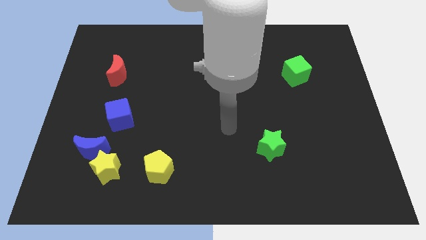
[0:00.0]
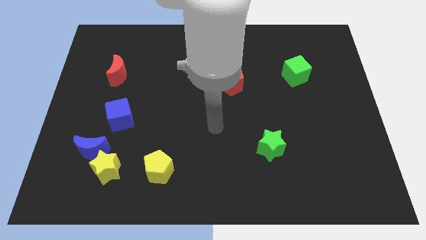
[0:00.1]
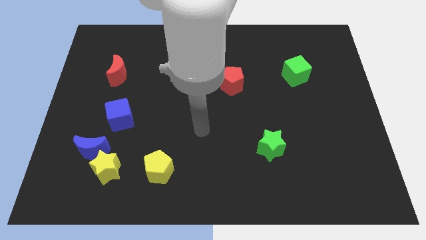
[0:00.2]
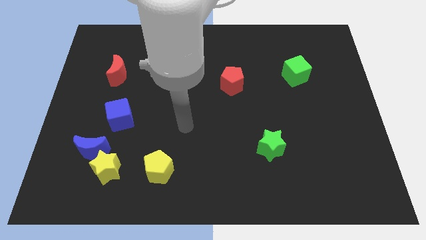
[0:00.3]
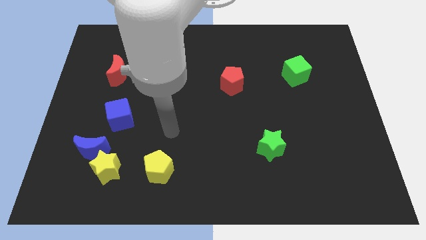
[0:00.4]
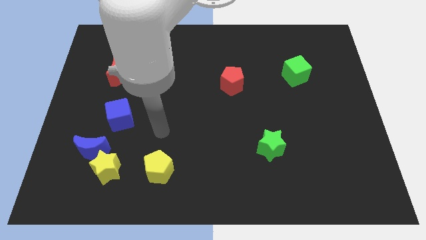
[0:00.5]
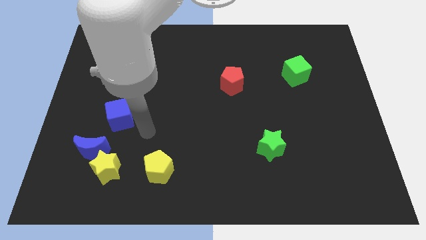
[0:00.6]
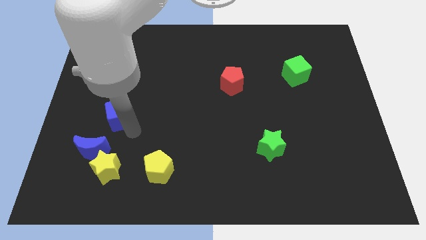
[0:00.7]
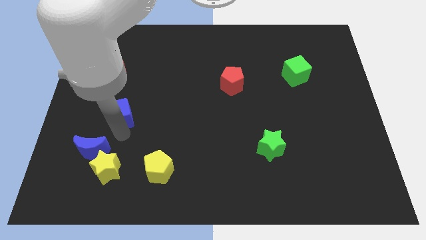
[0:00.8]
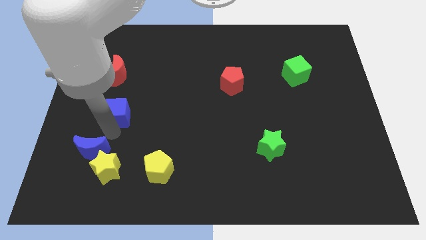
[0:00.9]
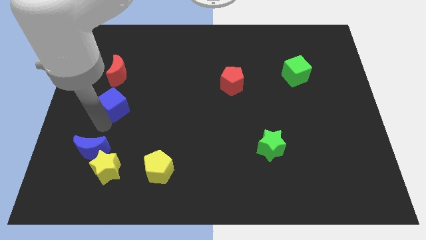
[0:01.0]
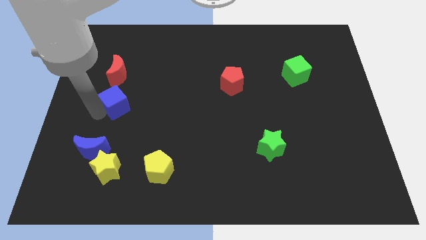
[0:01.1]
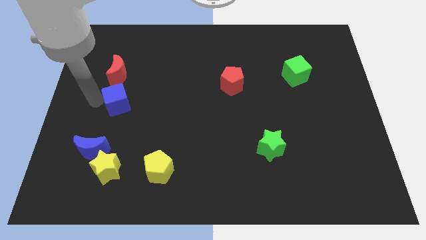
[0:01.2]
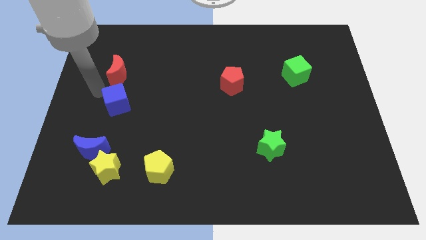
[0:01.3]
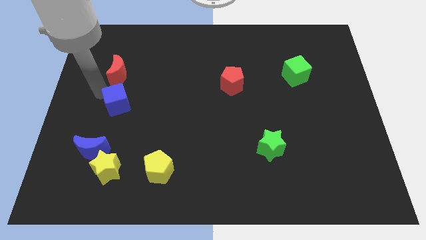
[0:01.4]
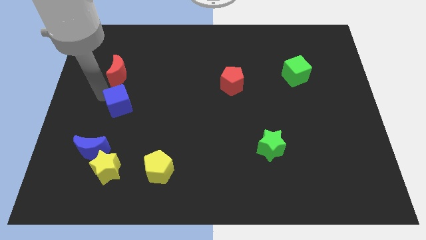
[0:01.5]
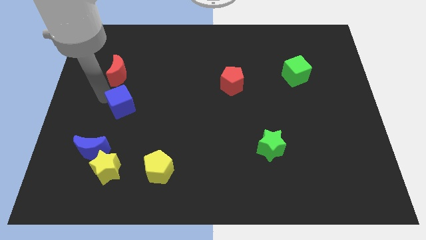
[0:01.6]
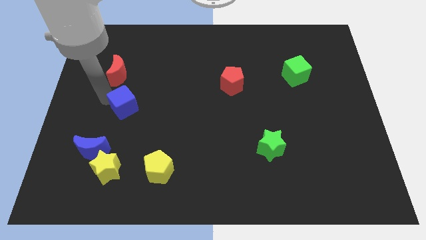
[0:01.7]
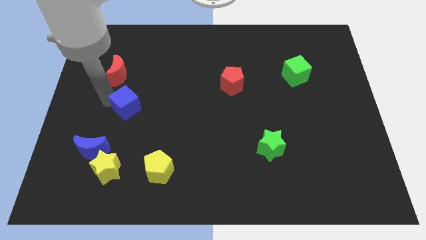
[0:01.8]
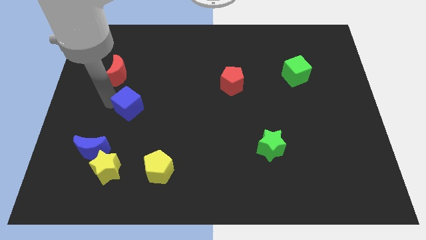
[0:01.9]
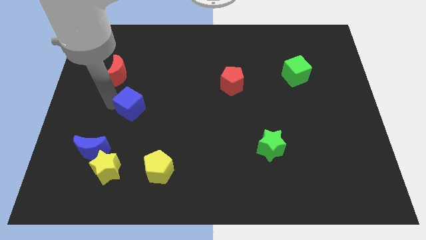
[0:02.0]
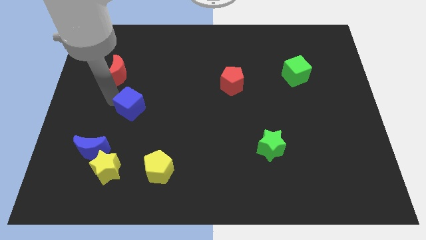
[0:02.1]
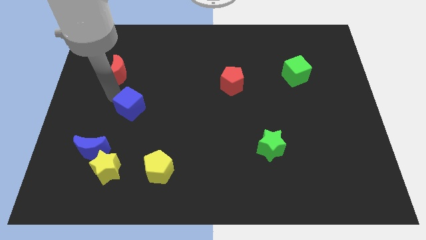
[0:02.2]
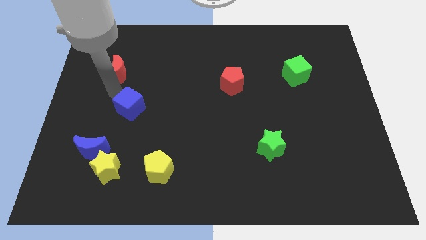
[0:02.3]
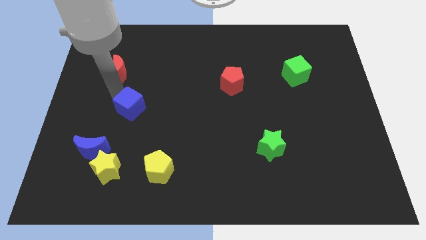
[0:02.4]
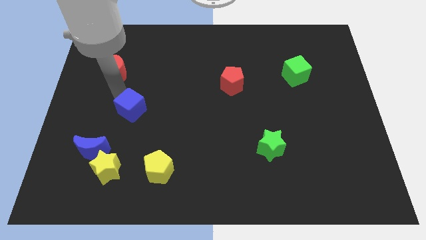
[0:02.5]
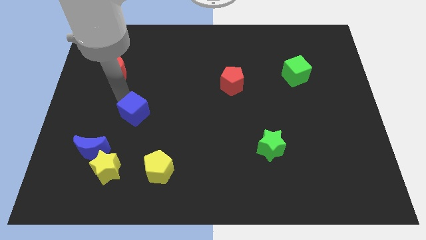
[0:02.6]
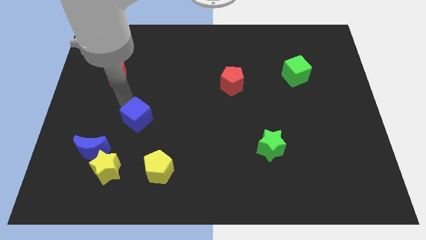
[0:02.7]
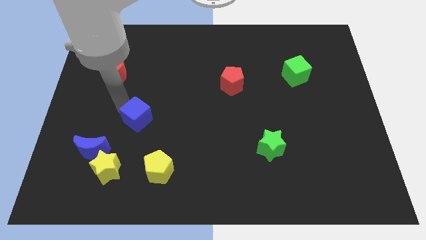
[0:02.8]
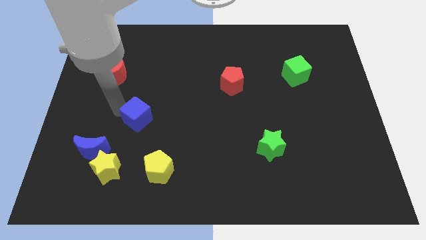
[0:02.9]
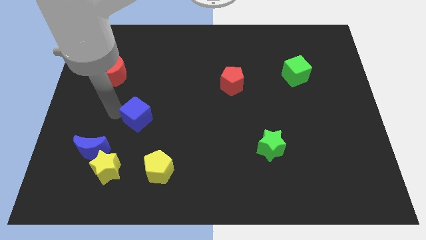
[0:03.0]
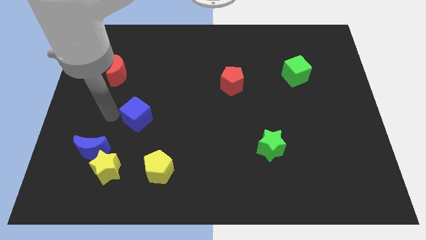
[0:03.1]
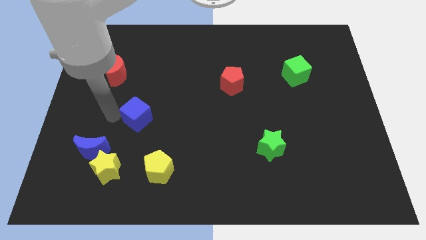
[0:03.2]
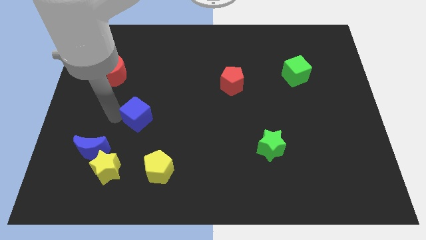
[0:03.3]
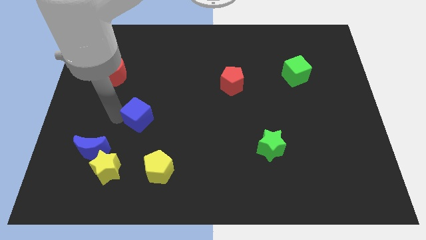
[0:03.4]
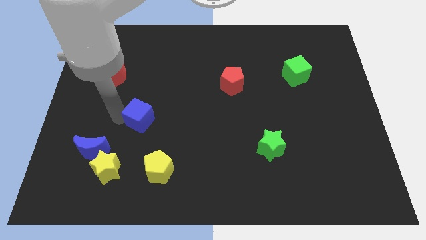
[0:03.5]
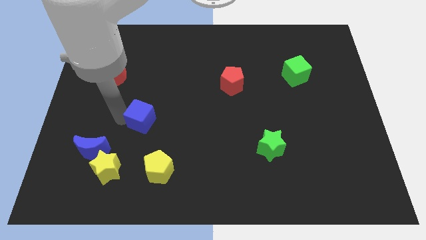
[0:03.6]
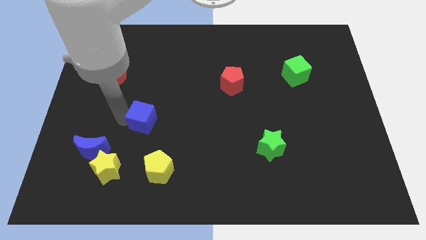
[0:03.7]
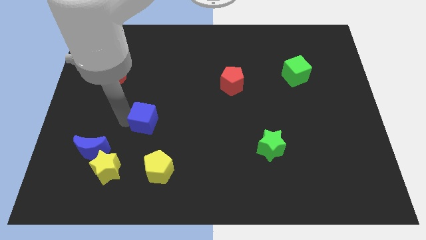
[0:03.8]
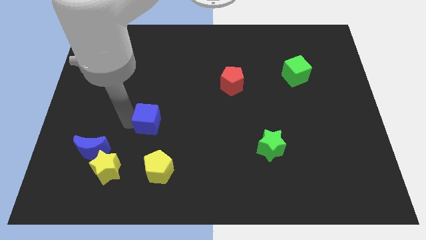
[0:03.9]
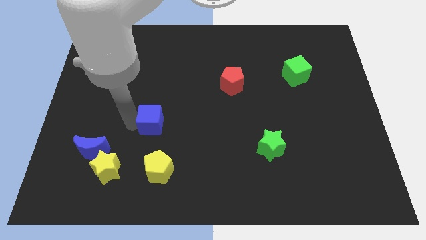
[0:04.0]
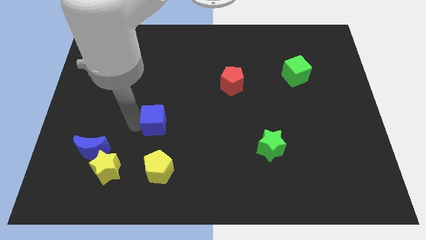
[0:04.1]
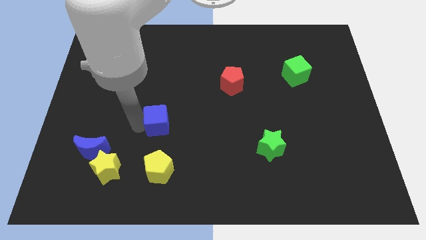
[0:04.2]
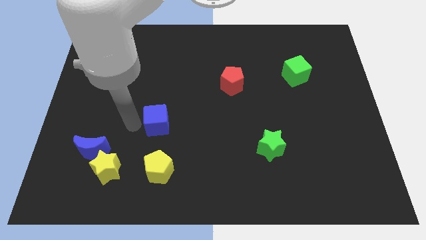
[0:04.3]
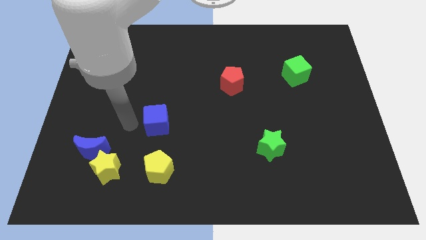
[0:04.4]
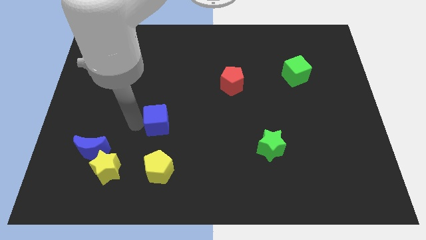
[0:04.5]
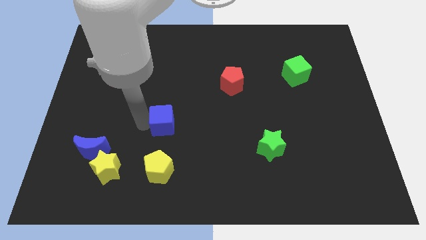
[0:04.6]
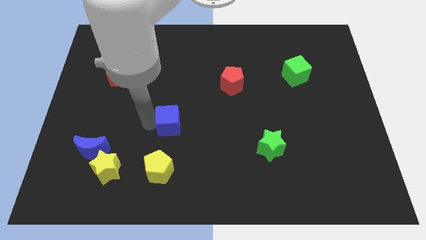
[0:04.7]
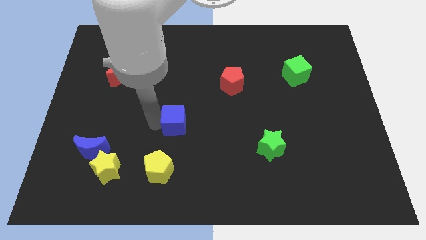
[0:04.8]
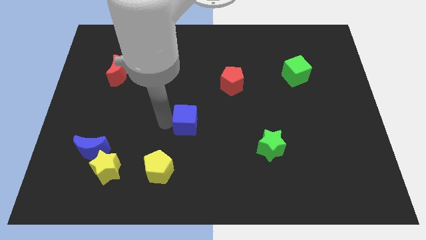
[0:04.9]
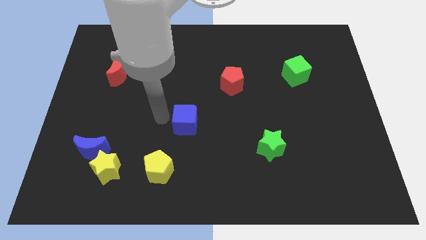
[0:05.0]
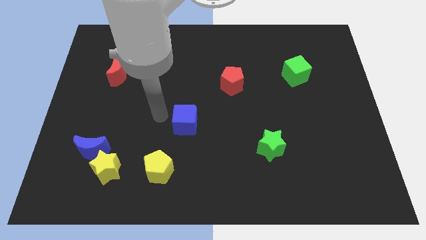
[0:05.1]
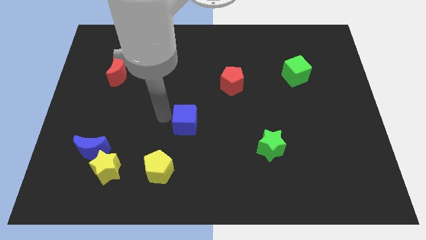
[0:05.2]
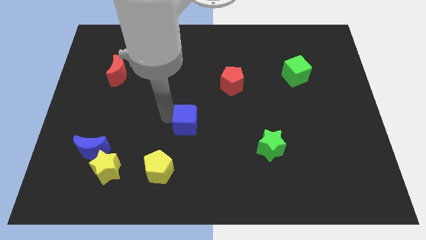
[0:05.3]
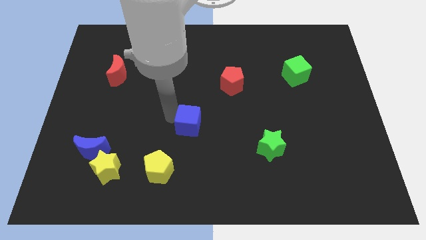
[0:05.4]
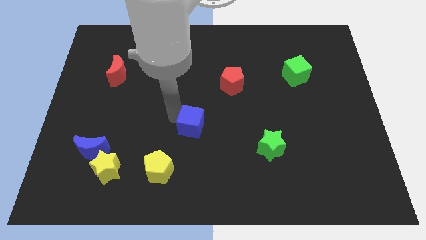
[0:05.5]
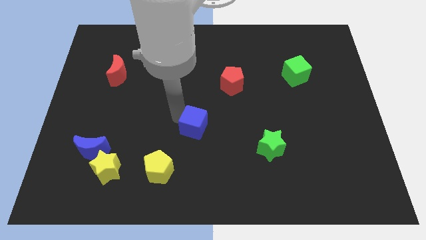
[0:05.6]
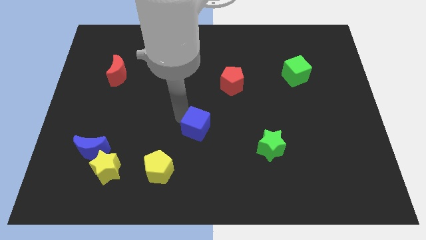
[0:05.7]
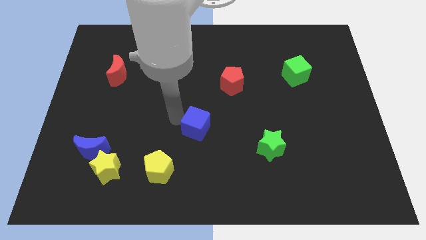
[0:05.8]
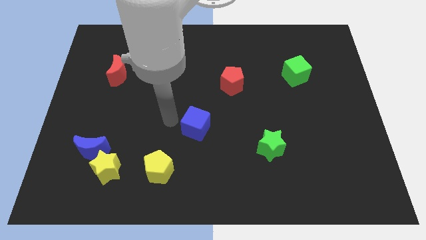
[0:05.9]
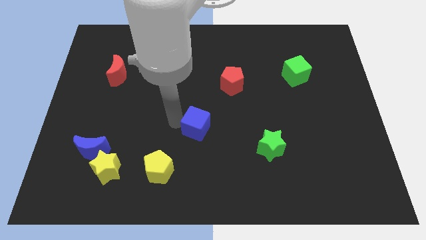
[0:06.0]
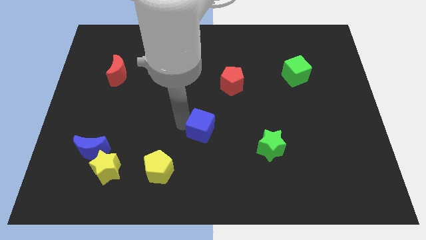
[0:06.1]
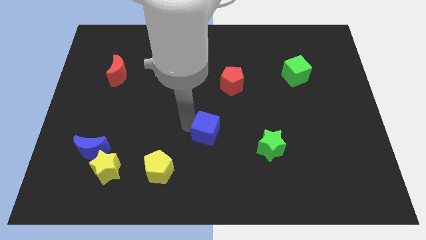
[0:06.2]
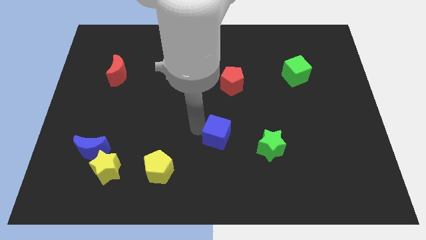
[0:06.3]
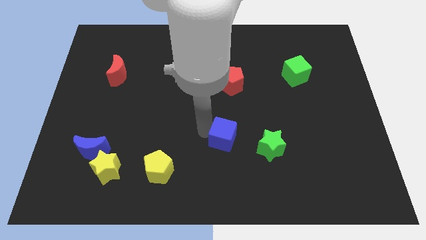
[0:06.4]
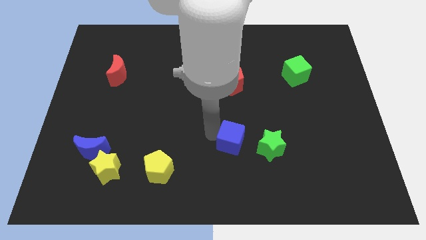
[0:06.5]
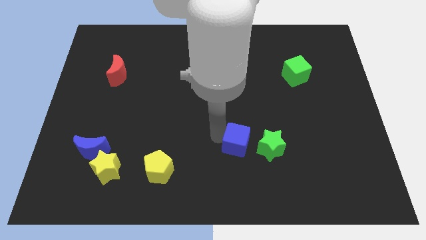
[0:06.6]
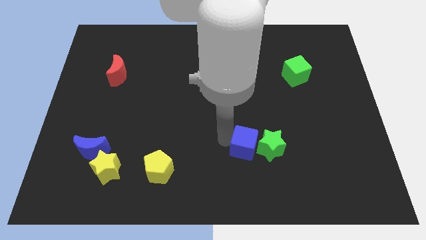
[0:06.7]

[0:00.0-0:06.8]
move the blue cube towards the green star

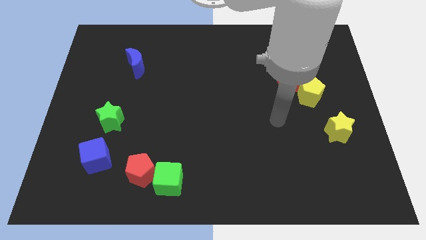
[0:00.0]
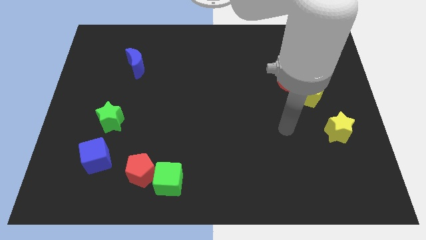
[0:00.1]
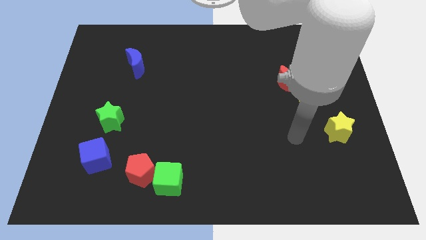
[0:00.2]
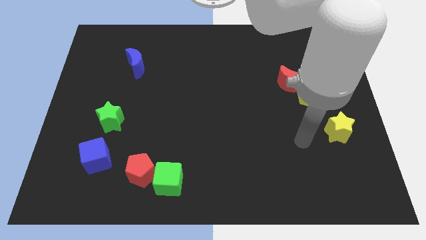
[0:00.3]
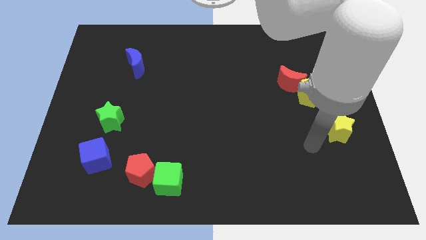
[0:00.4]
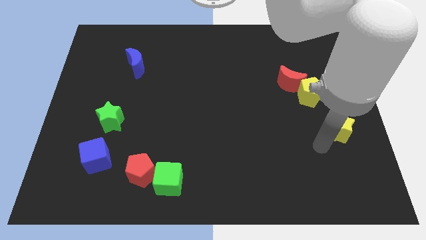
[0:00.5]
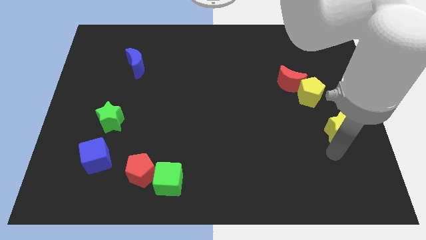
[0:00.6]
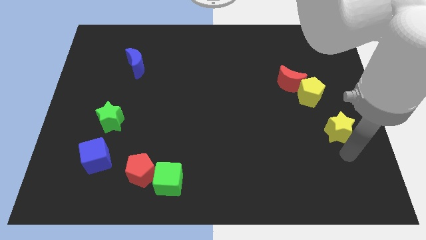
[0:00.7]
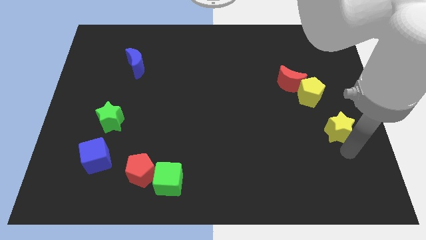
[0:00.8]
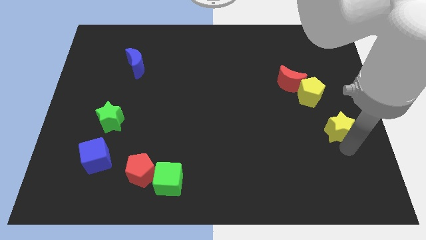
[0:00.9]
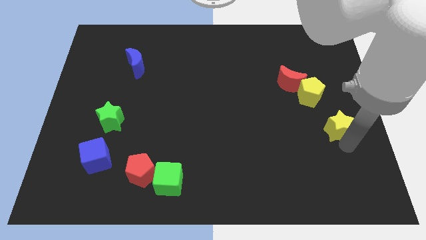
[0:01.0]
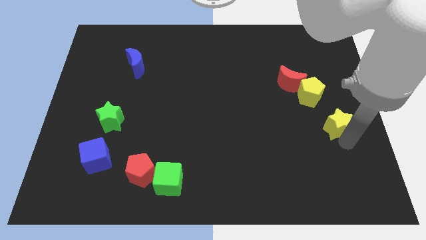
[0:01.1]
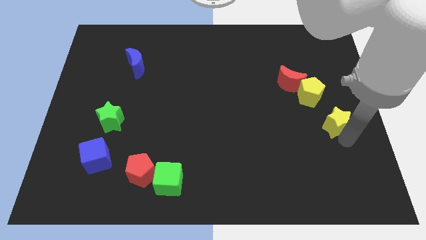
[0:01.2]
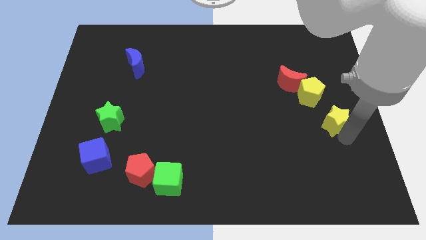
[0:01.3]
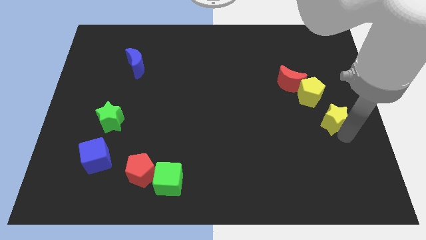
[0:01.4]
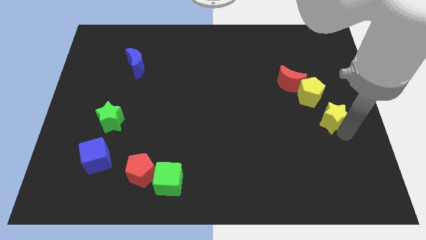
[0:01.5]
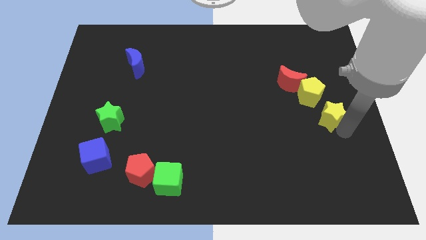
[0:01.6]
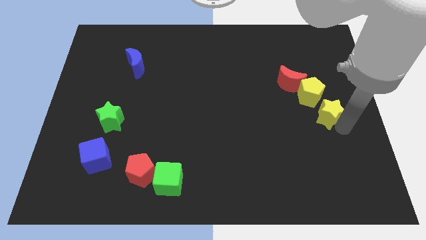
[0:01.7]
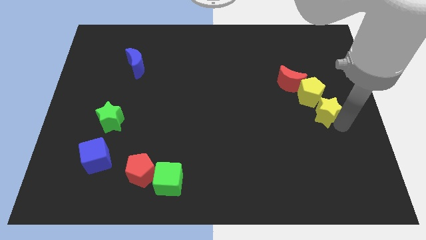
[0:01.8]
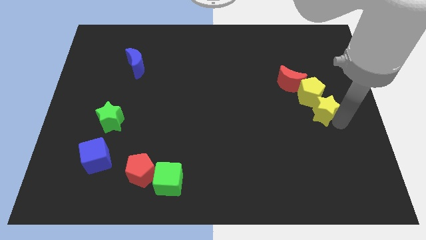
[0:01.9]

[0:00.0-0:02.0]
move the yellow star close to the yellow pentagon
